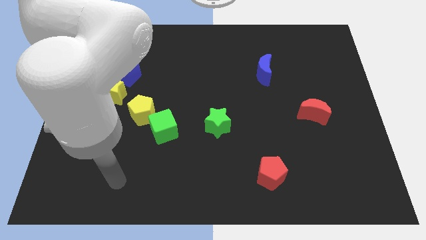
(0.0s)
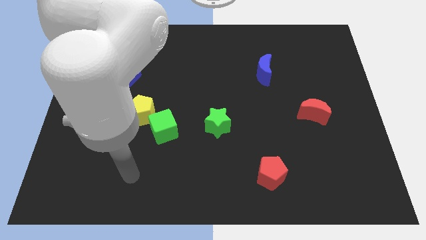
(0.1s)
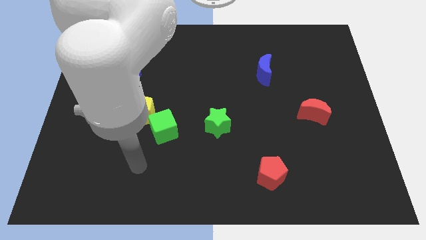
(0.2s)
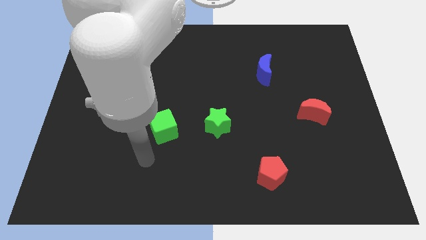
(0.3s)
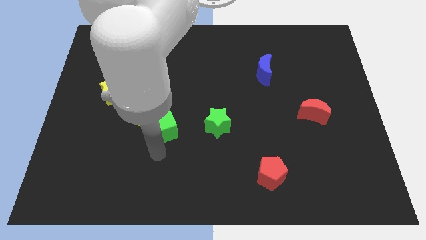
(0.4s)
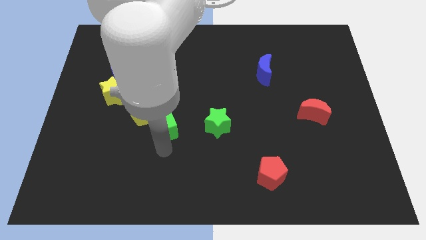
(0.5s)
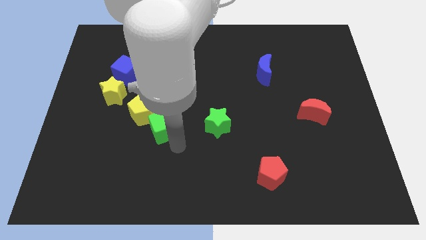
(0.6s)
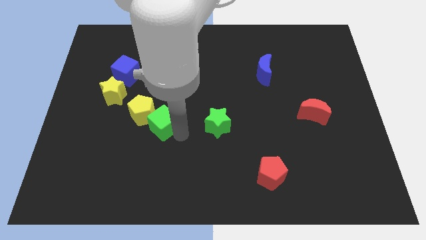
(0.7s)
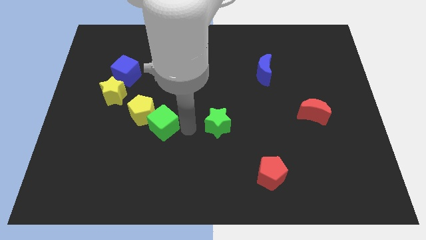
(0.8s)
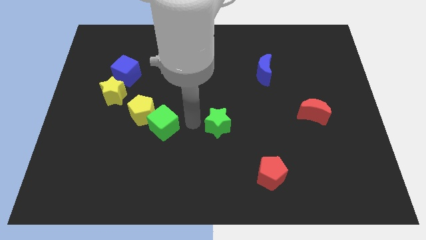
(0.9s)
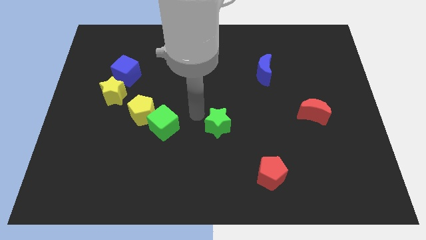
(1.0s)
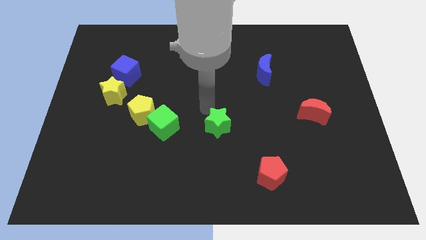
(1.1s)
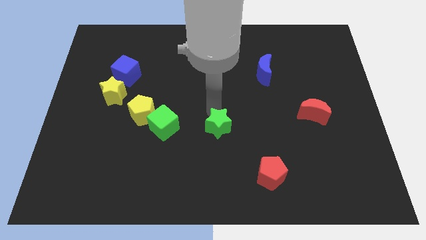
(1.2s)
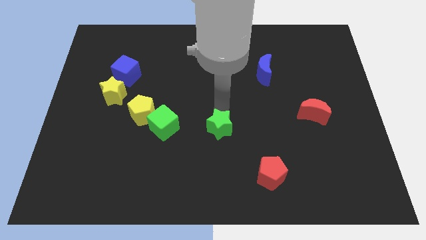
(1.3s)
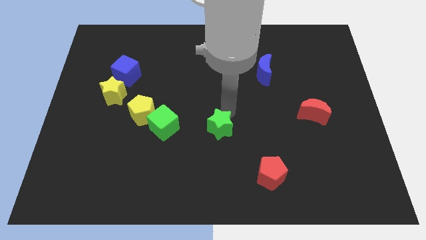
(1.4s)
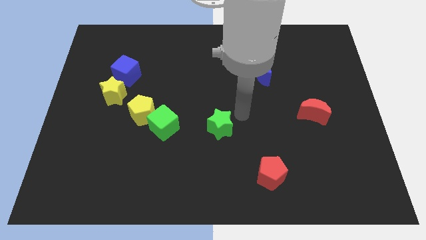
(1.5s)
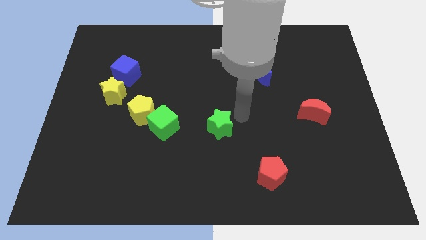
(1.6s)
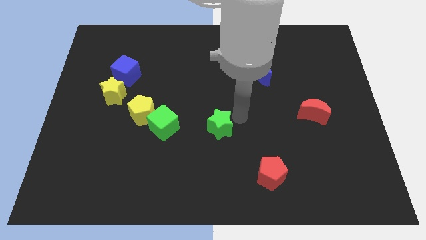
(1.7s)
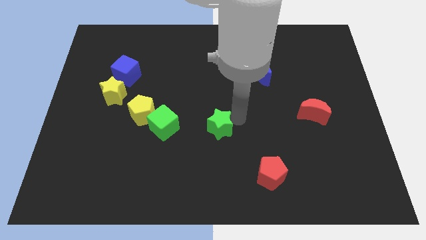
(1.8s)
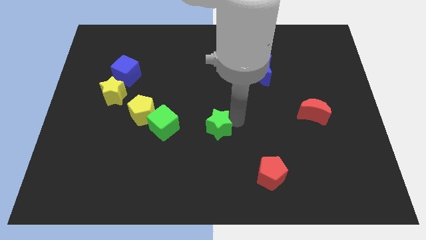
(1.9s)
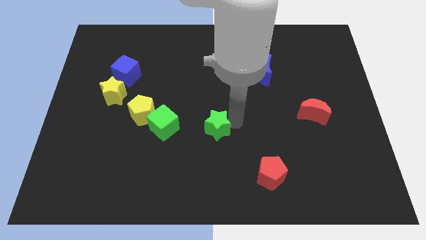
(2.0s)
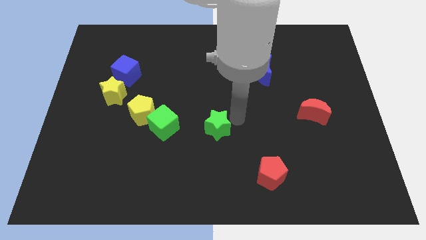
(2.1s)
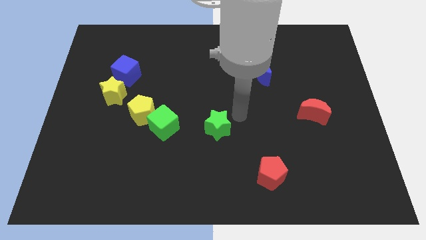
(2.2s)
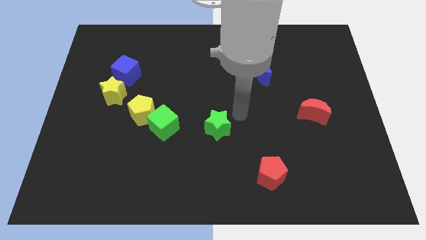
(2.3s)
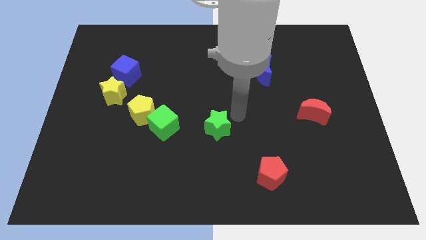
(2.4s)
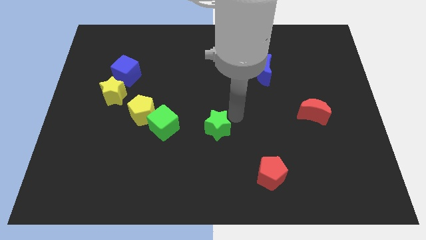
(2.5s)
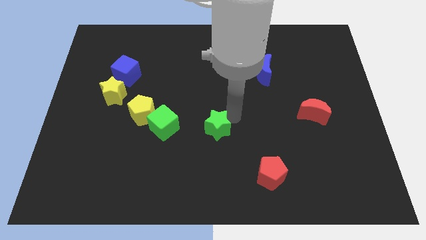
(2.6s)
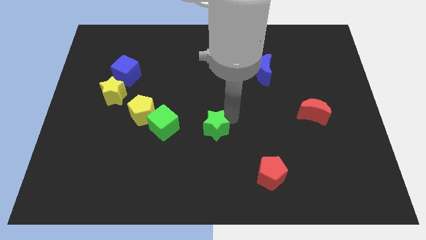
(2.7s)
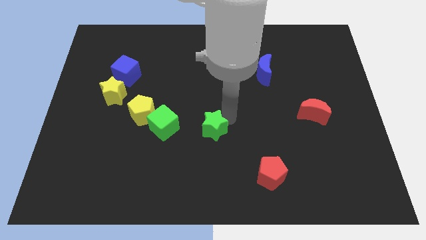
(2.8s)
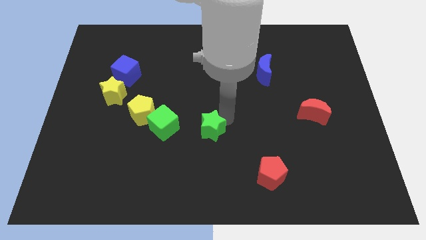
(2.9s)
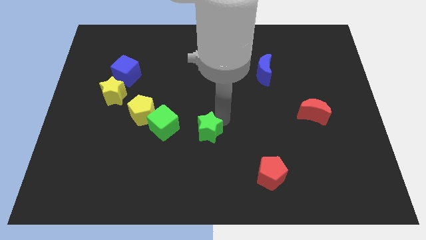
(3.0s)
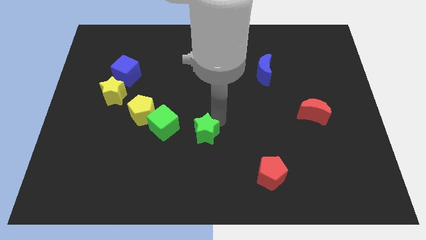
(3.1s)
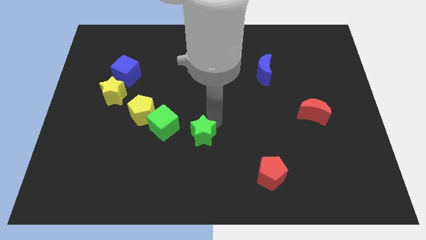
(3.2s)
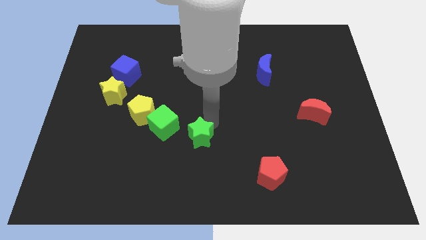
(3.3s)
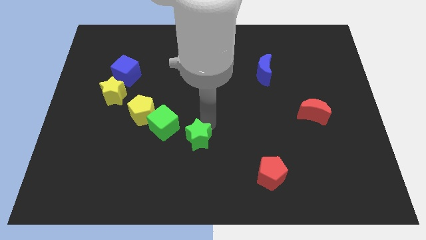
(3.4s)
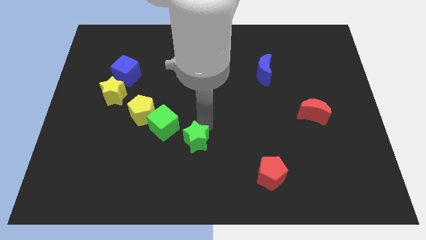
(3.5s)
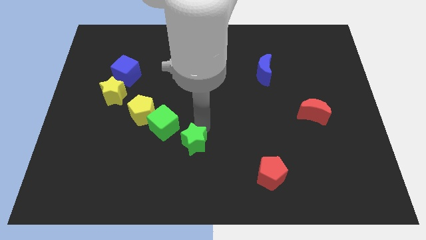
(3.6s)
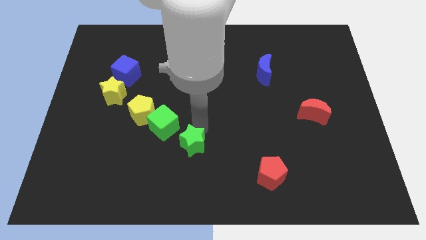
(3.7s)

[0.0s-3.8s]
slide the green star a little diagonally down and to the left

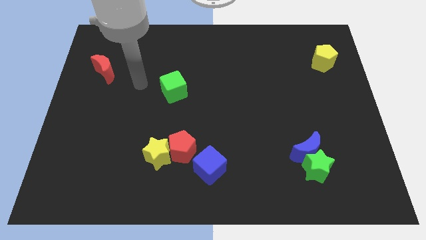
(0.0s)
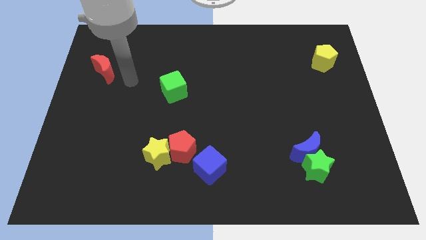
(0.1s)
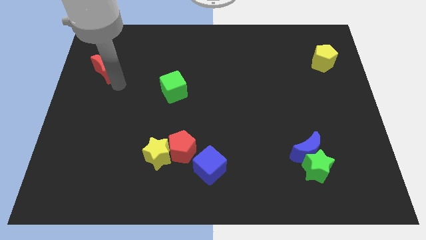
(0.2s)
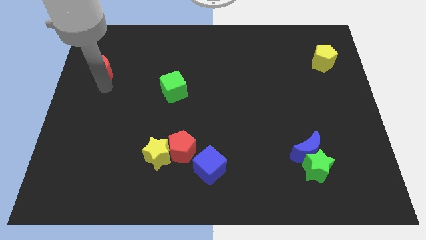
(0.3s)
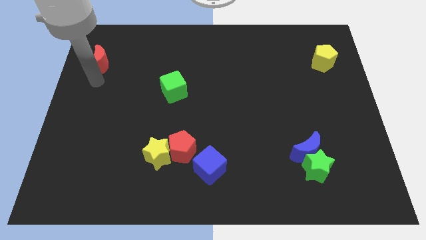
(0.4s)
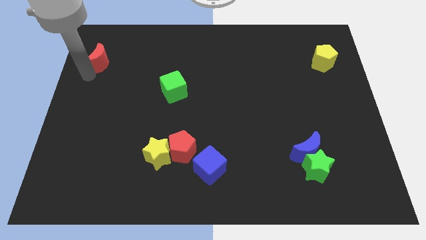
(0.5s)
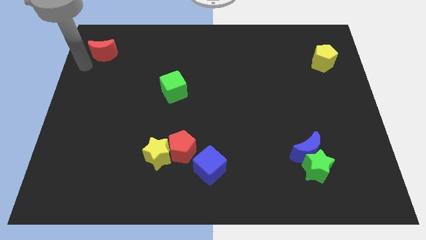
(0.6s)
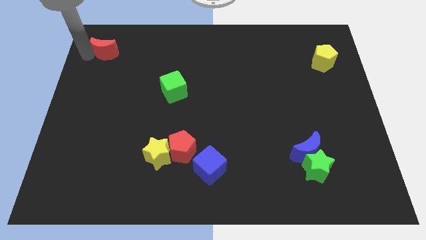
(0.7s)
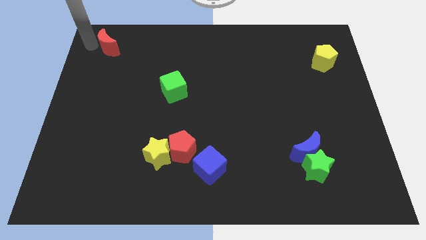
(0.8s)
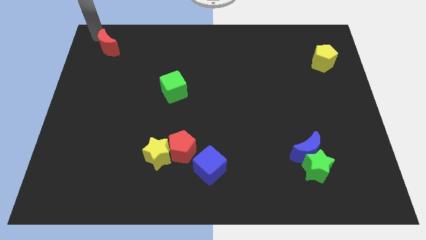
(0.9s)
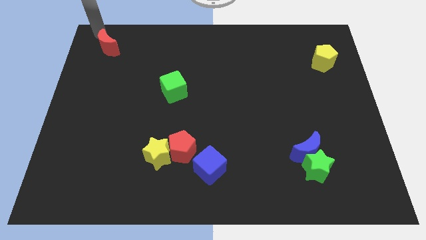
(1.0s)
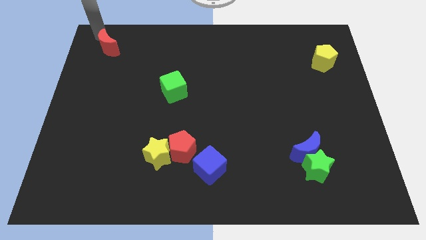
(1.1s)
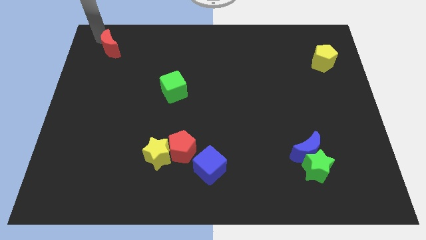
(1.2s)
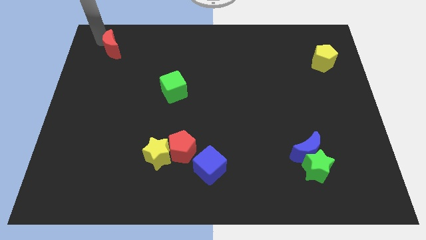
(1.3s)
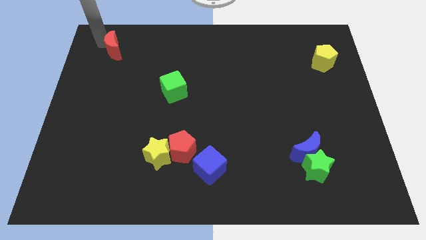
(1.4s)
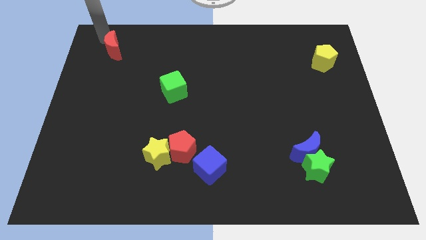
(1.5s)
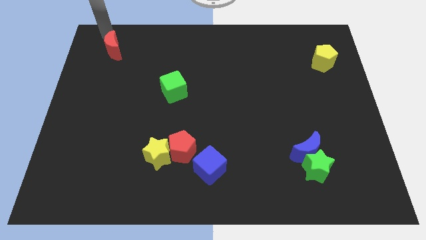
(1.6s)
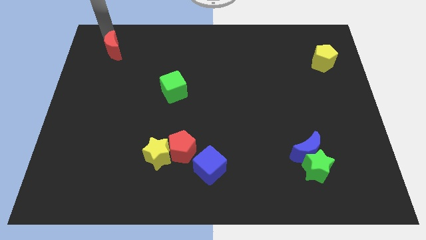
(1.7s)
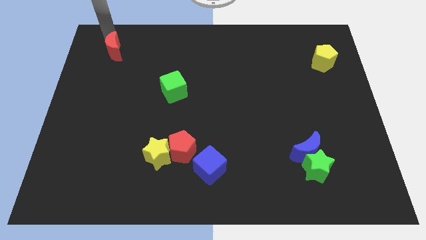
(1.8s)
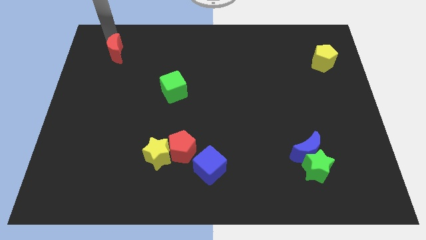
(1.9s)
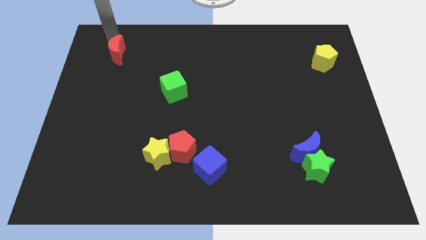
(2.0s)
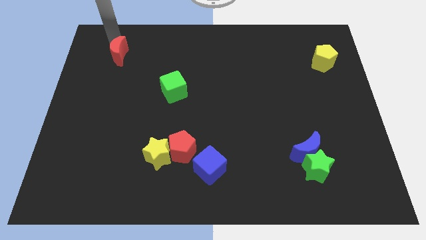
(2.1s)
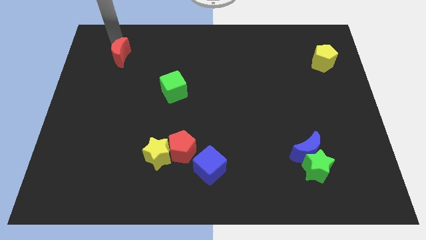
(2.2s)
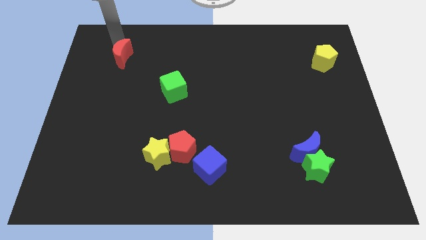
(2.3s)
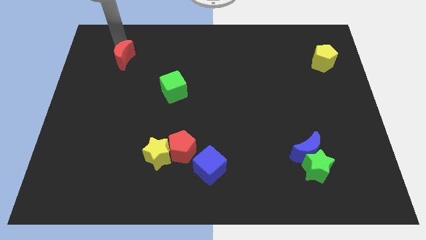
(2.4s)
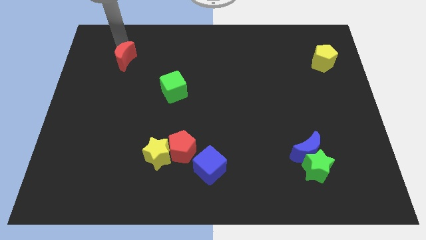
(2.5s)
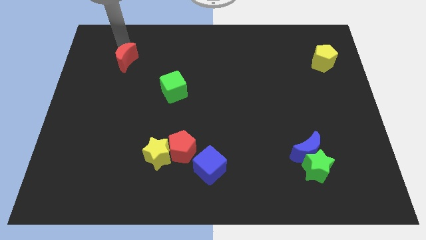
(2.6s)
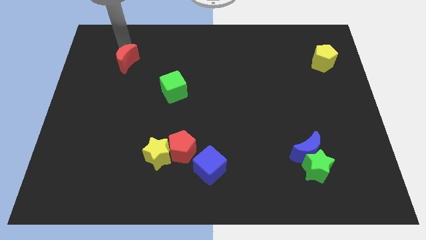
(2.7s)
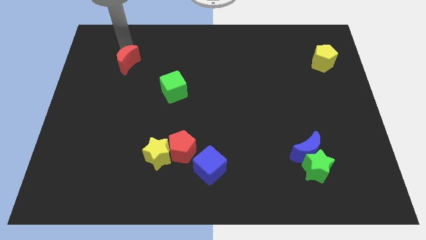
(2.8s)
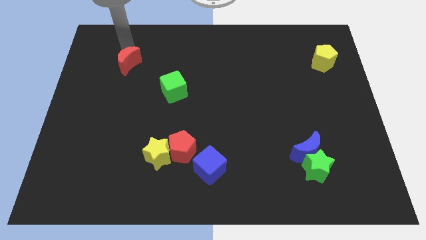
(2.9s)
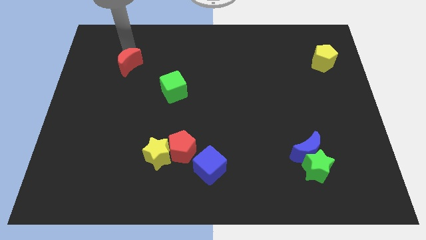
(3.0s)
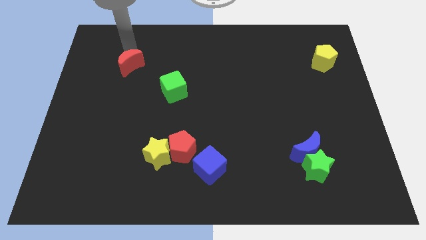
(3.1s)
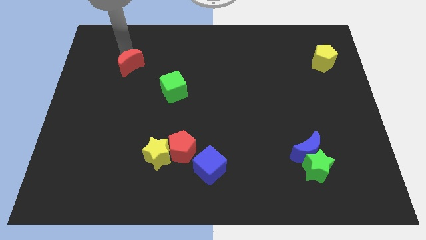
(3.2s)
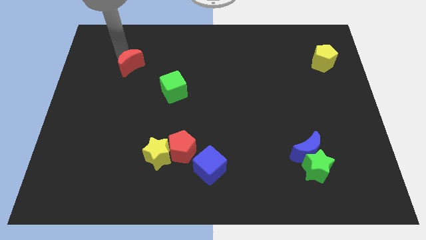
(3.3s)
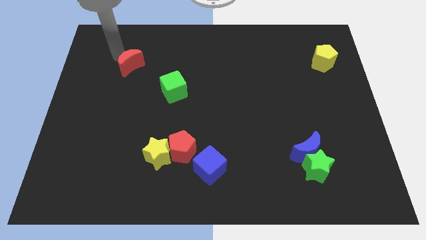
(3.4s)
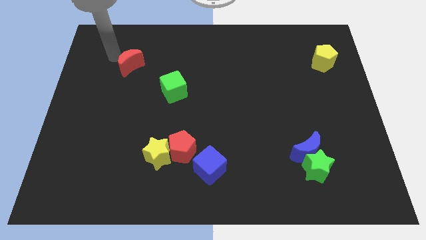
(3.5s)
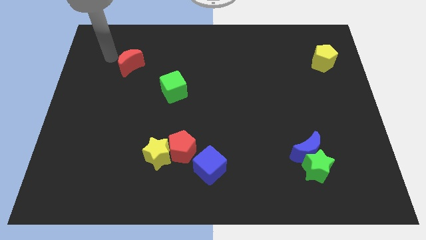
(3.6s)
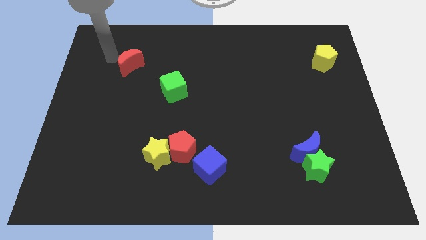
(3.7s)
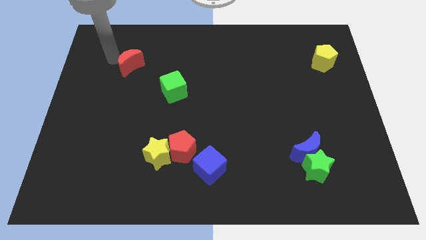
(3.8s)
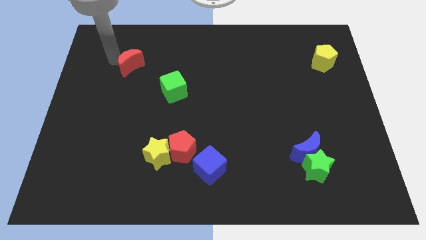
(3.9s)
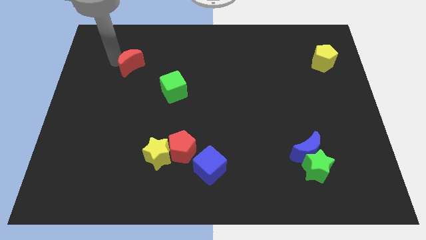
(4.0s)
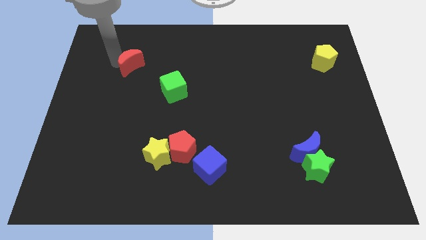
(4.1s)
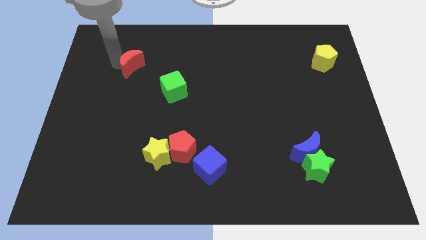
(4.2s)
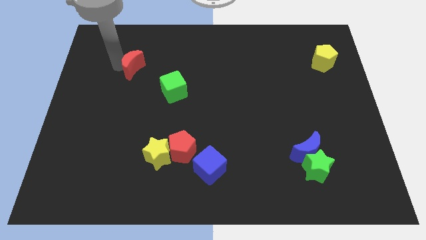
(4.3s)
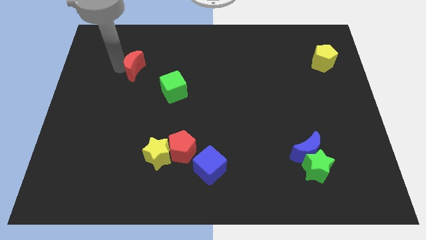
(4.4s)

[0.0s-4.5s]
slide the red moon a bit to the right
